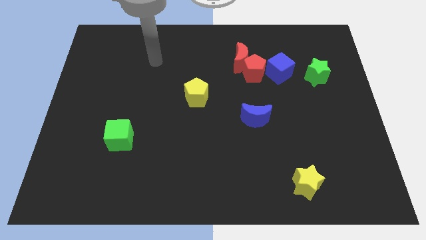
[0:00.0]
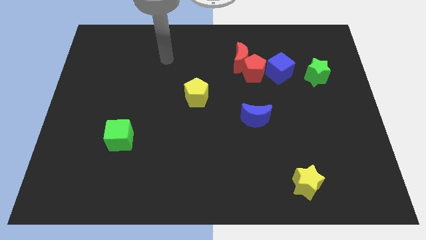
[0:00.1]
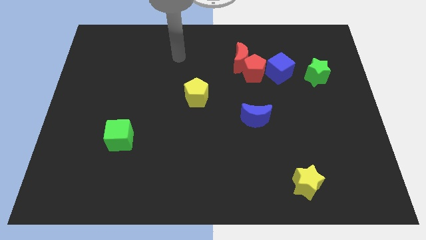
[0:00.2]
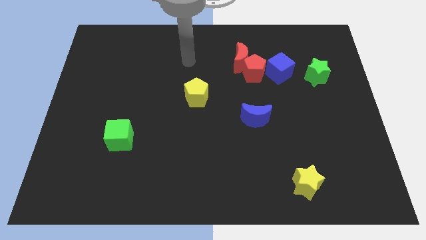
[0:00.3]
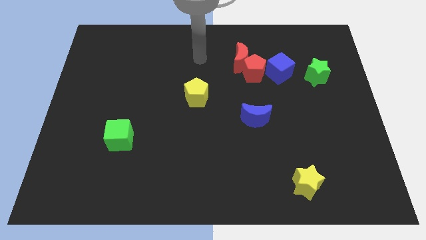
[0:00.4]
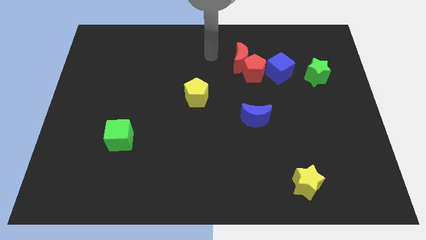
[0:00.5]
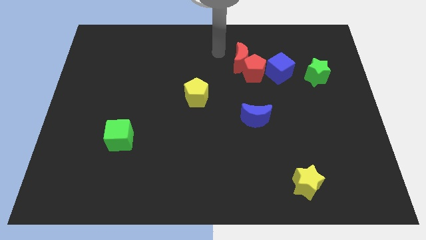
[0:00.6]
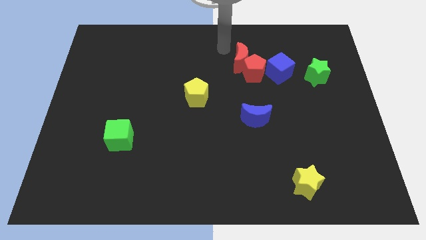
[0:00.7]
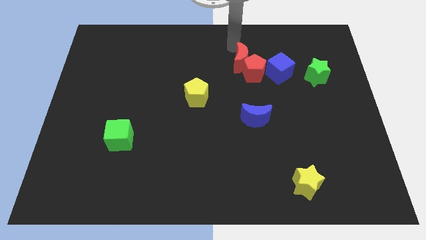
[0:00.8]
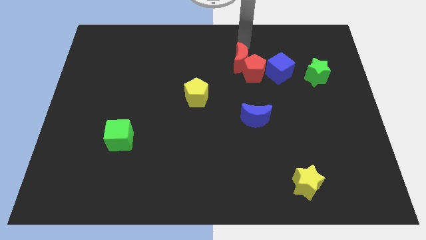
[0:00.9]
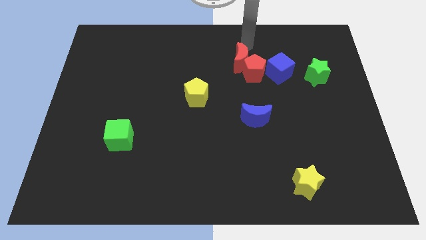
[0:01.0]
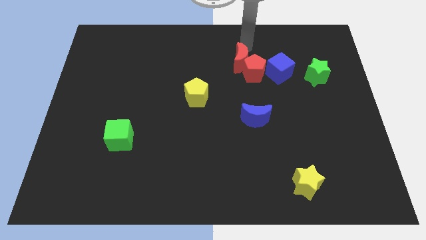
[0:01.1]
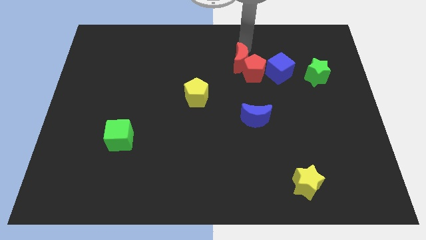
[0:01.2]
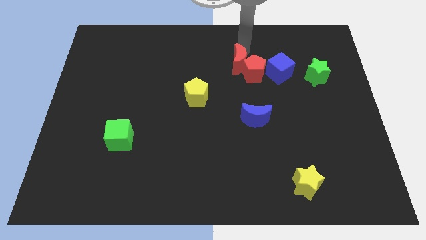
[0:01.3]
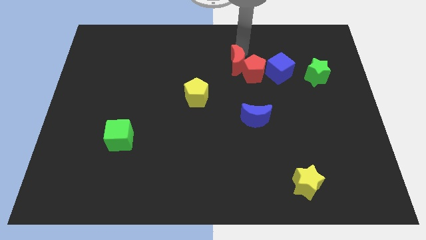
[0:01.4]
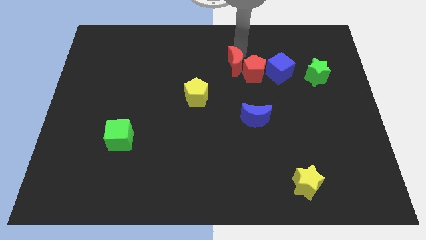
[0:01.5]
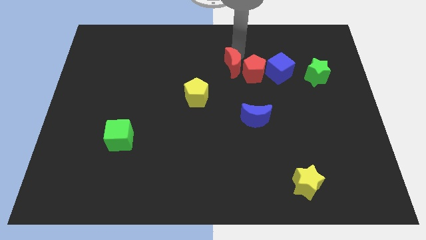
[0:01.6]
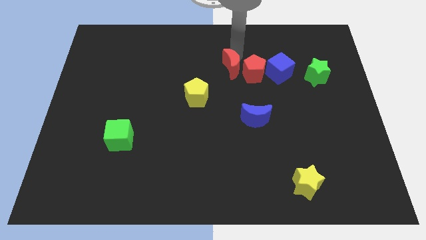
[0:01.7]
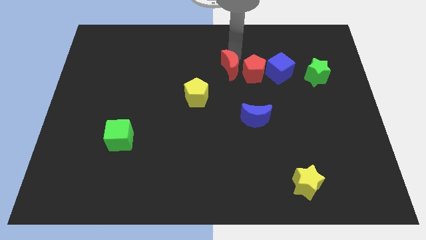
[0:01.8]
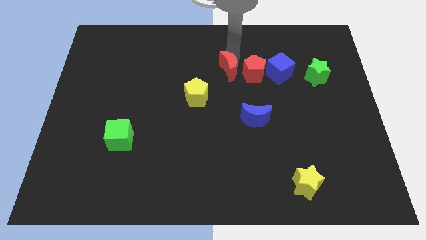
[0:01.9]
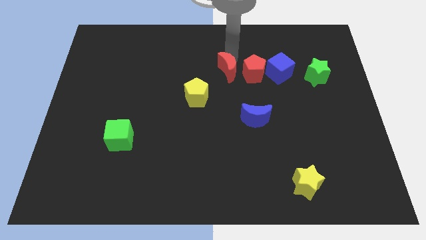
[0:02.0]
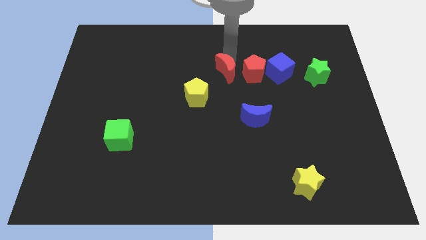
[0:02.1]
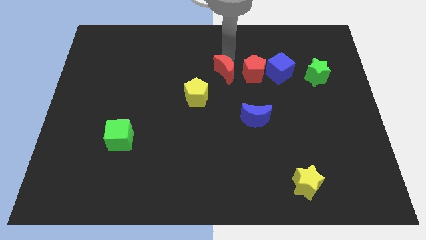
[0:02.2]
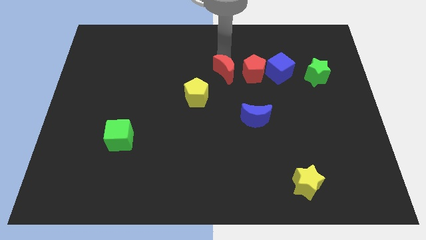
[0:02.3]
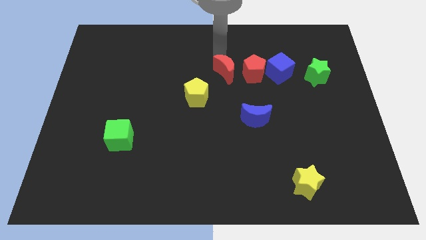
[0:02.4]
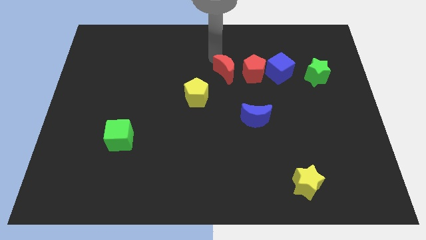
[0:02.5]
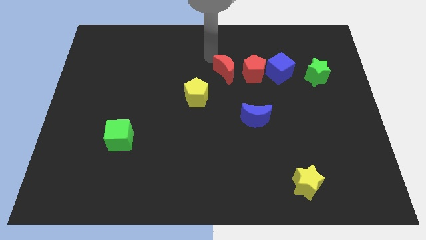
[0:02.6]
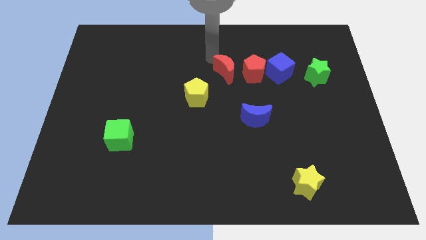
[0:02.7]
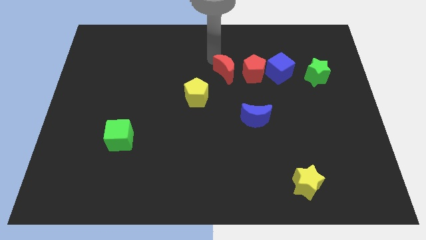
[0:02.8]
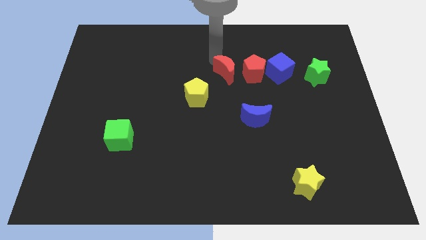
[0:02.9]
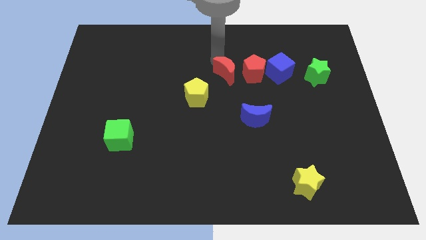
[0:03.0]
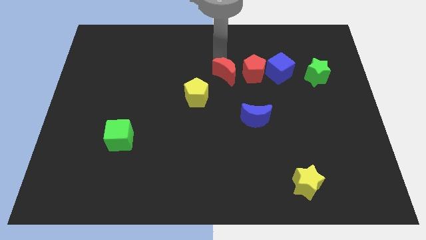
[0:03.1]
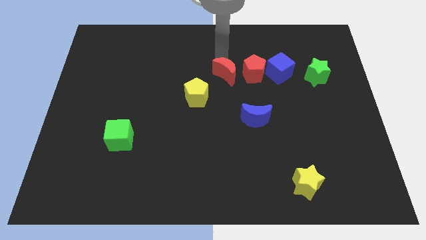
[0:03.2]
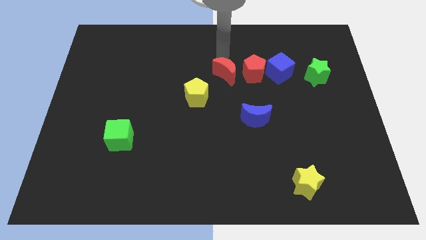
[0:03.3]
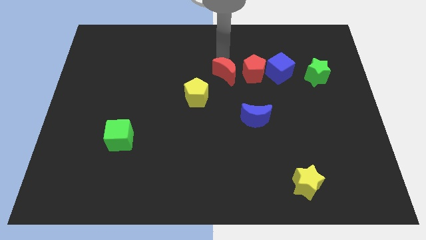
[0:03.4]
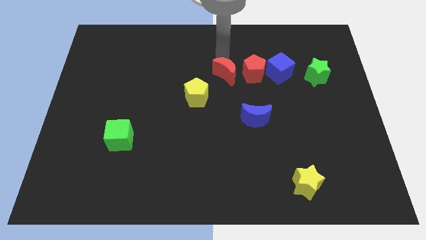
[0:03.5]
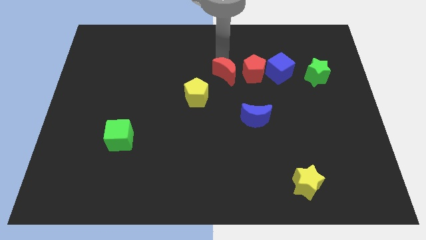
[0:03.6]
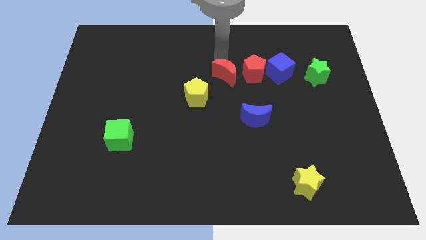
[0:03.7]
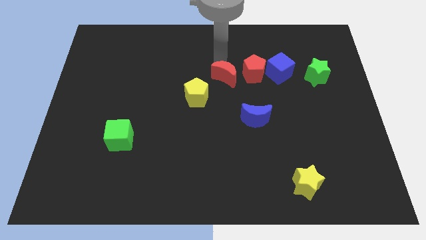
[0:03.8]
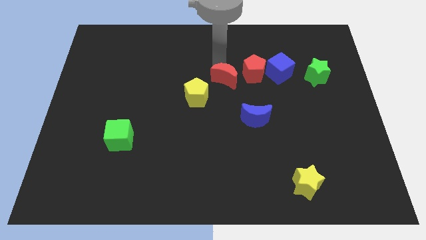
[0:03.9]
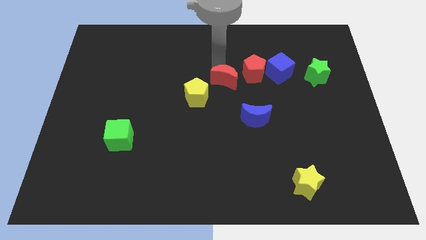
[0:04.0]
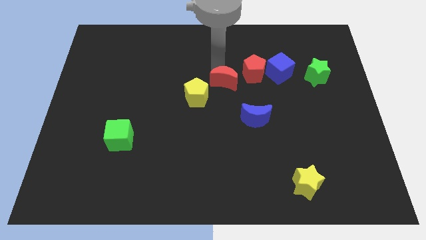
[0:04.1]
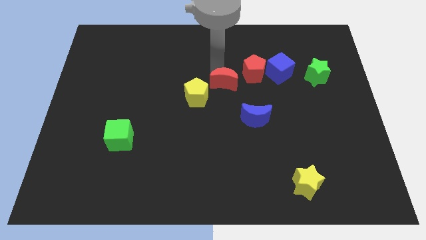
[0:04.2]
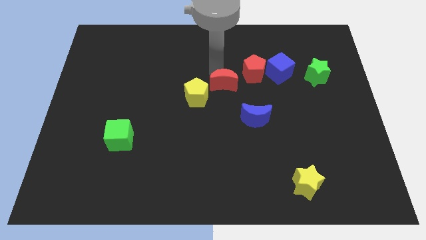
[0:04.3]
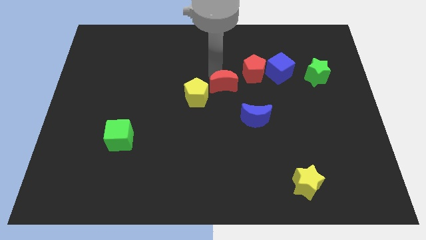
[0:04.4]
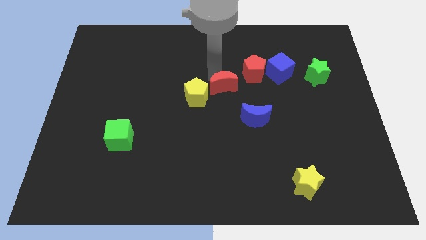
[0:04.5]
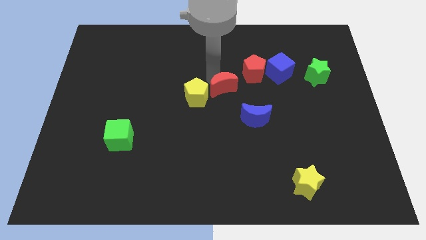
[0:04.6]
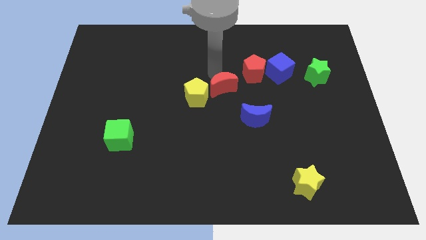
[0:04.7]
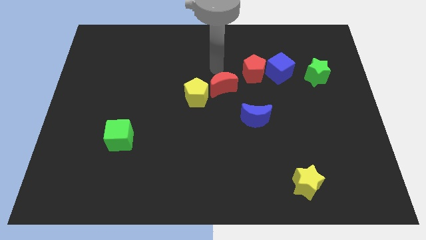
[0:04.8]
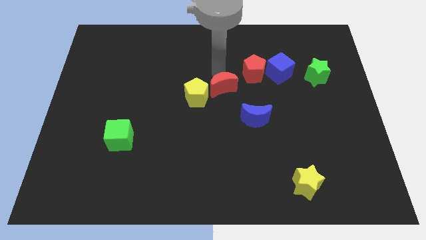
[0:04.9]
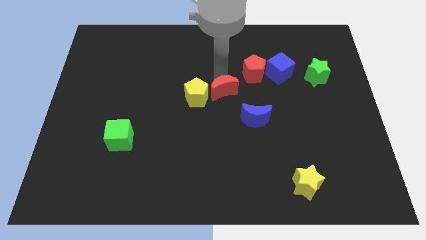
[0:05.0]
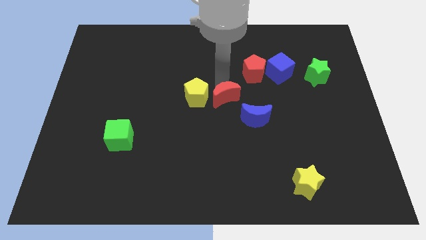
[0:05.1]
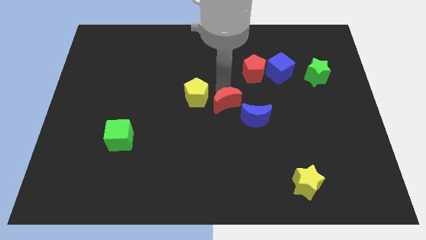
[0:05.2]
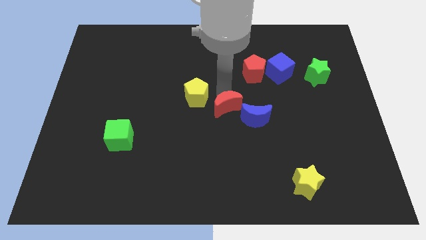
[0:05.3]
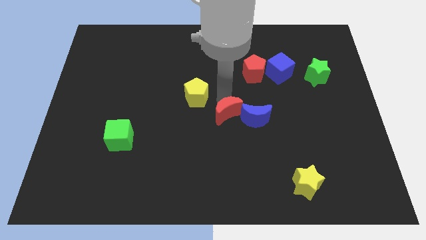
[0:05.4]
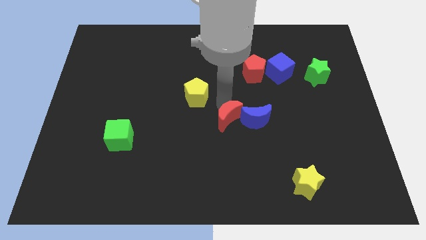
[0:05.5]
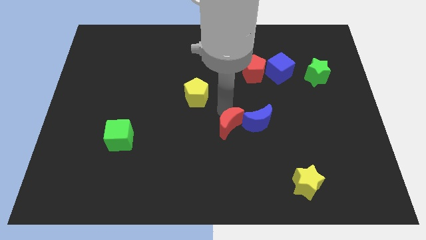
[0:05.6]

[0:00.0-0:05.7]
push the red moon downwards

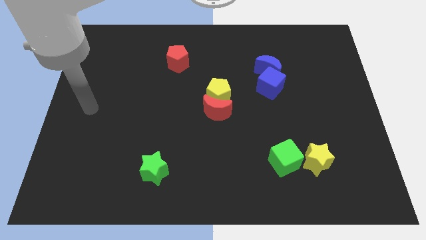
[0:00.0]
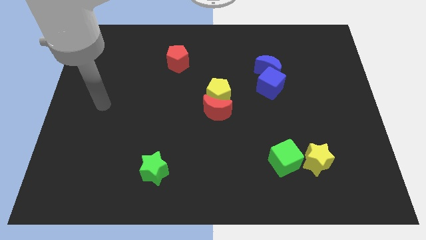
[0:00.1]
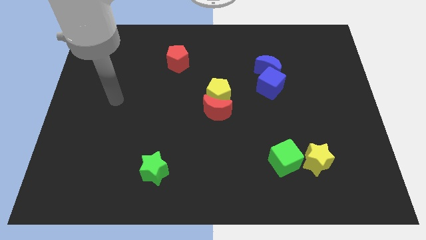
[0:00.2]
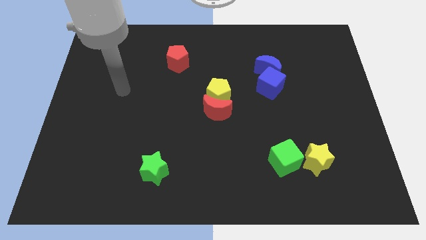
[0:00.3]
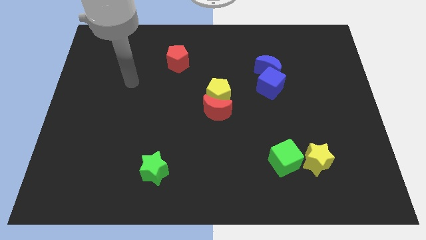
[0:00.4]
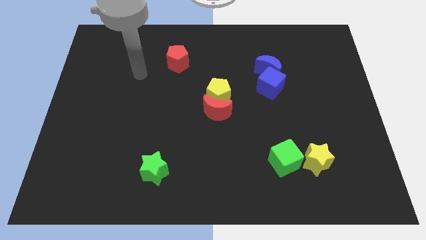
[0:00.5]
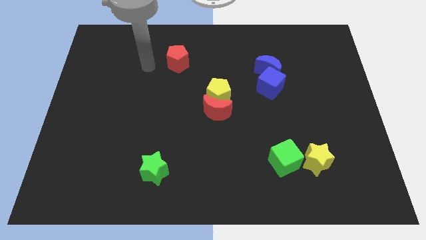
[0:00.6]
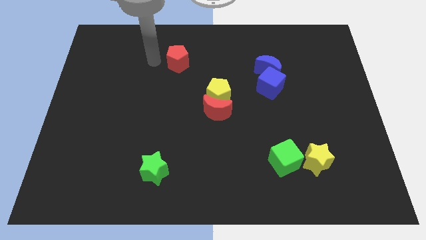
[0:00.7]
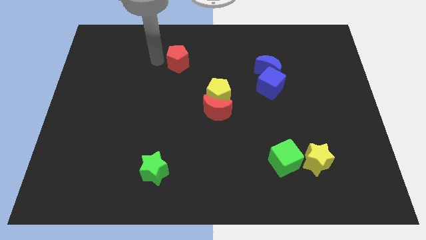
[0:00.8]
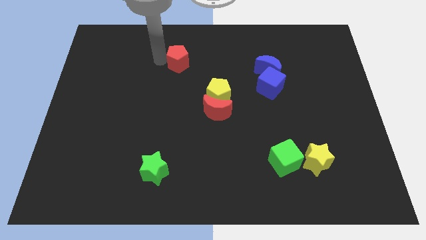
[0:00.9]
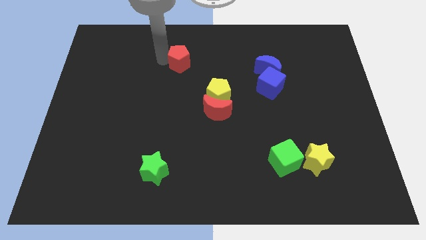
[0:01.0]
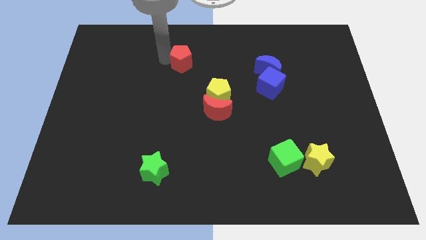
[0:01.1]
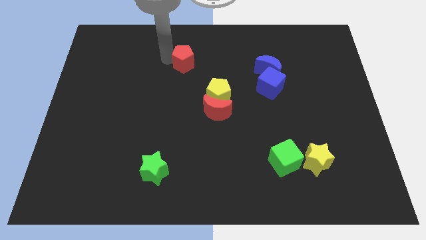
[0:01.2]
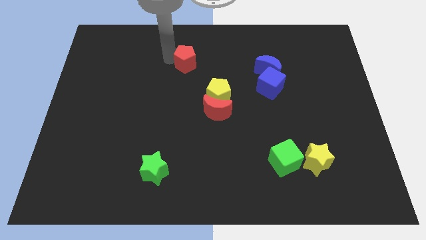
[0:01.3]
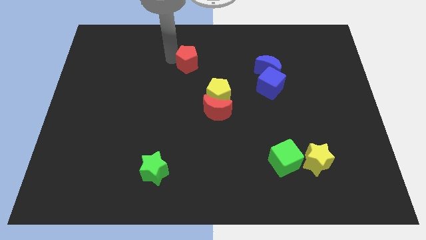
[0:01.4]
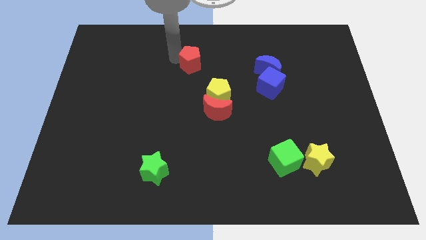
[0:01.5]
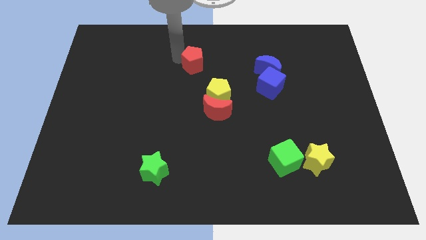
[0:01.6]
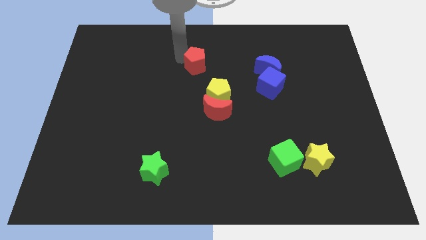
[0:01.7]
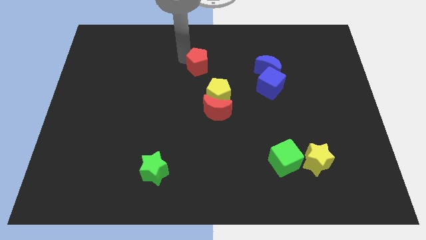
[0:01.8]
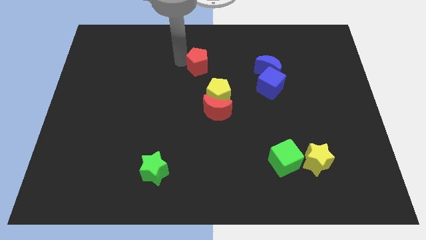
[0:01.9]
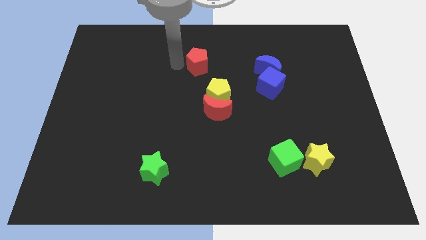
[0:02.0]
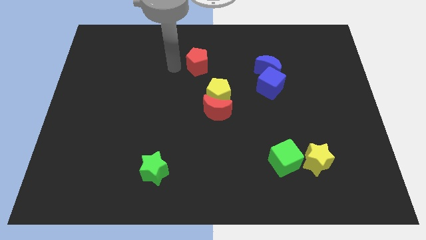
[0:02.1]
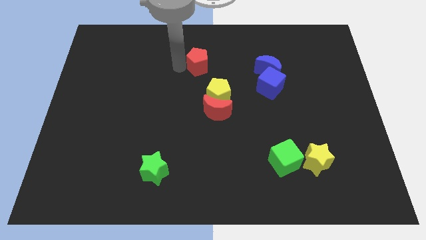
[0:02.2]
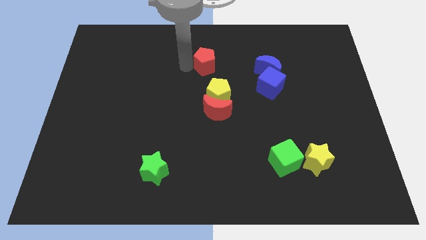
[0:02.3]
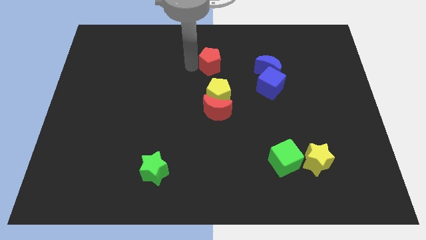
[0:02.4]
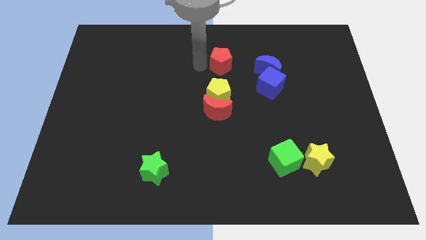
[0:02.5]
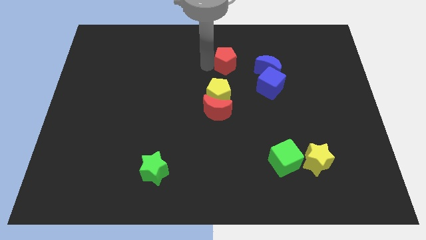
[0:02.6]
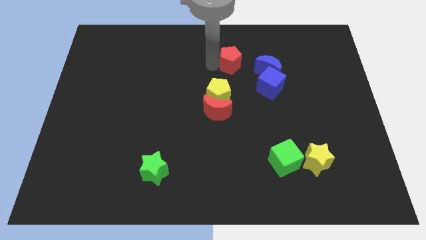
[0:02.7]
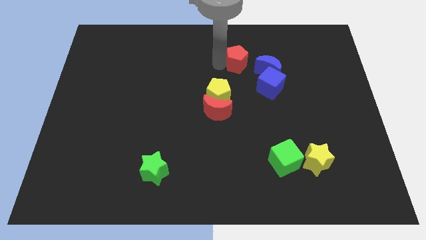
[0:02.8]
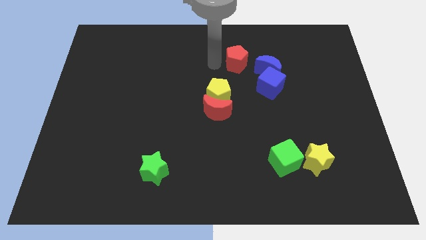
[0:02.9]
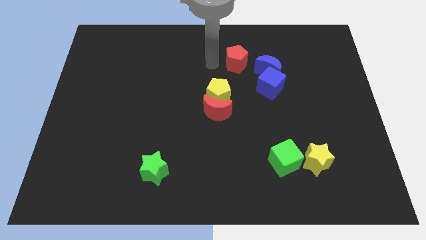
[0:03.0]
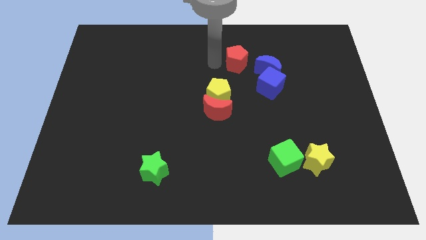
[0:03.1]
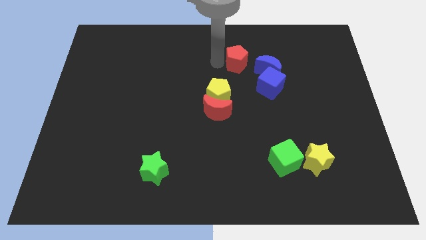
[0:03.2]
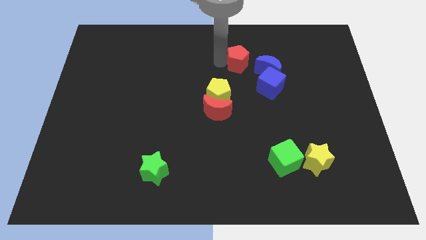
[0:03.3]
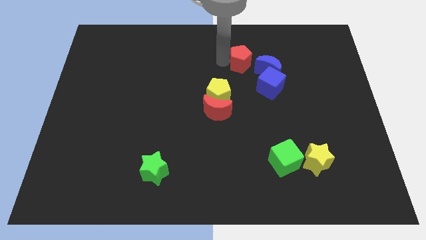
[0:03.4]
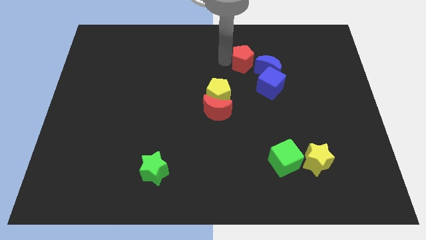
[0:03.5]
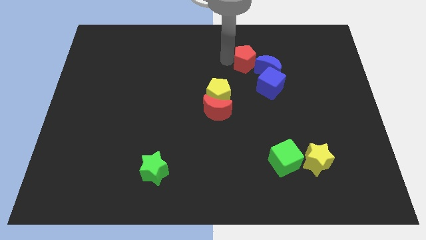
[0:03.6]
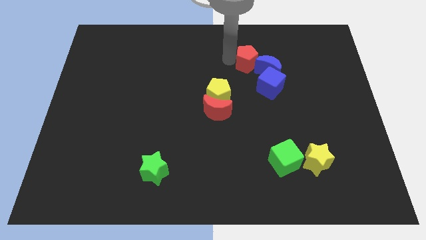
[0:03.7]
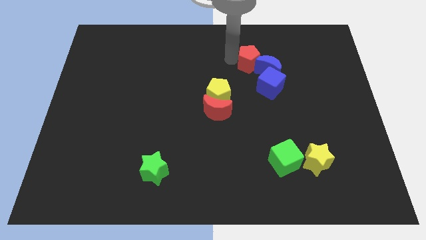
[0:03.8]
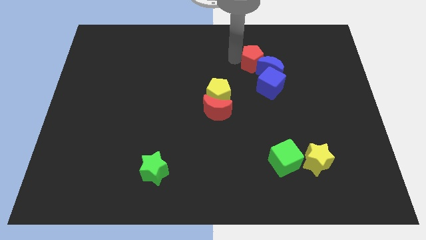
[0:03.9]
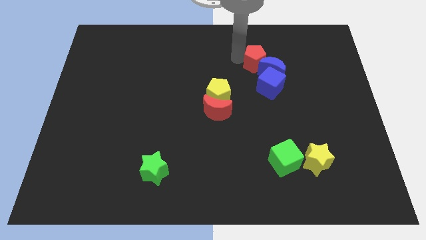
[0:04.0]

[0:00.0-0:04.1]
push the red pentagon right
